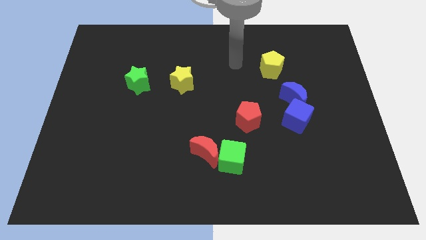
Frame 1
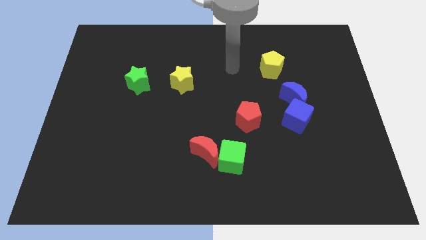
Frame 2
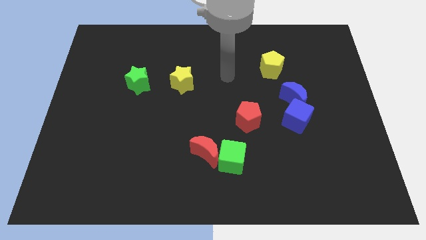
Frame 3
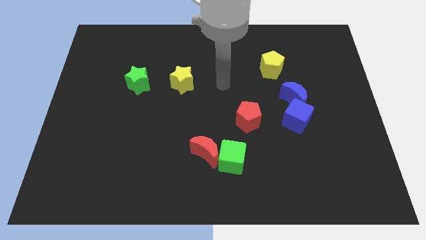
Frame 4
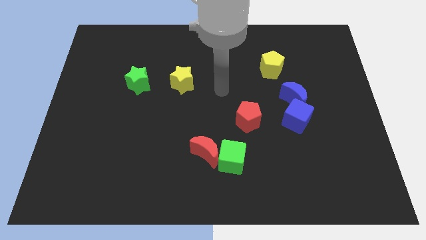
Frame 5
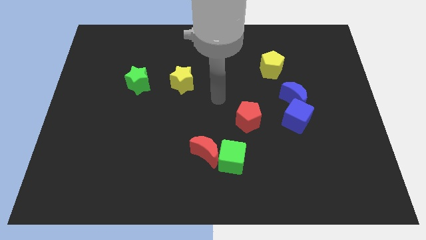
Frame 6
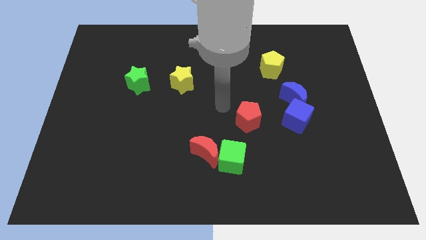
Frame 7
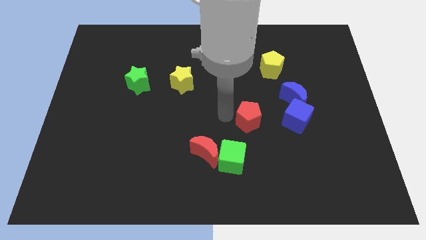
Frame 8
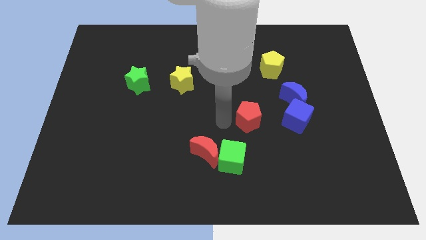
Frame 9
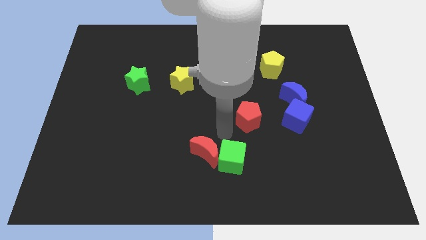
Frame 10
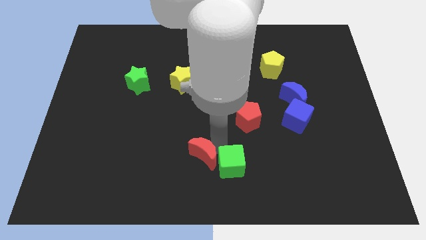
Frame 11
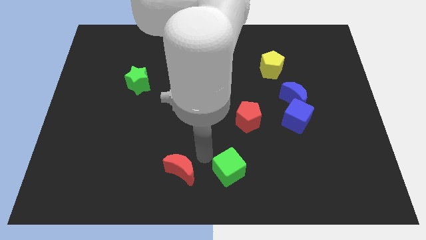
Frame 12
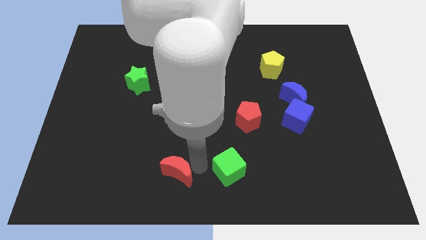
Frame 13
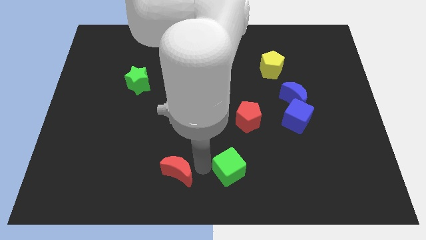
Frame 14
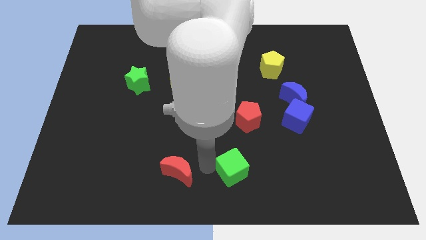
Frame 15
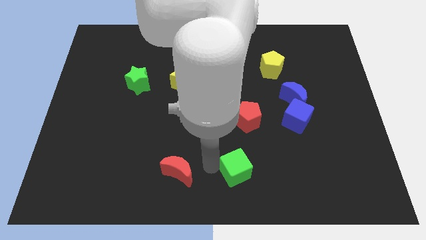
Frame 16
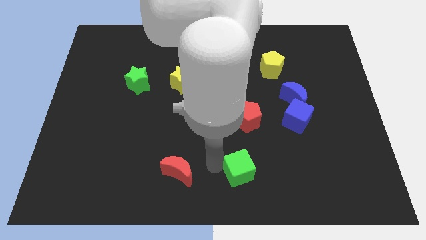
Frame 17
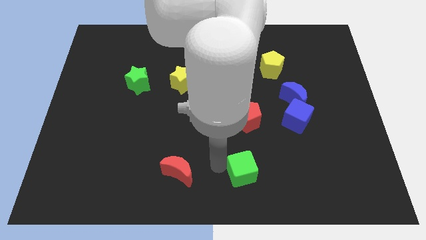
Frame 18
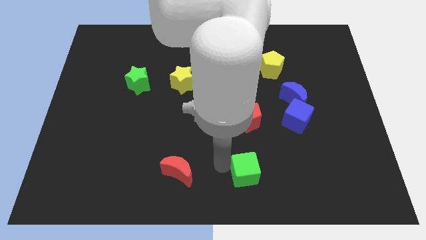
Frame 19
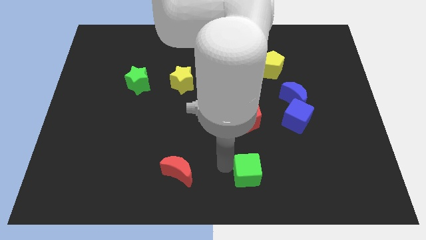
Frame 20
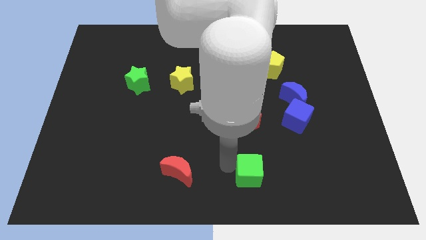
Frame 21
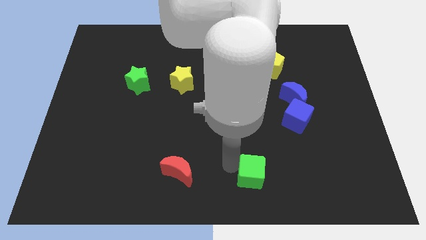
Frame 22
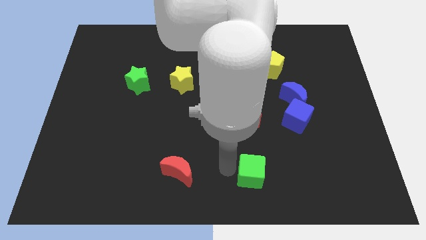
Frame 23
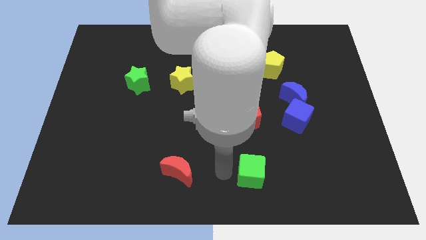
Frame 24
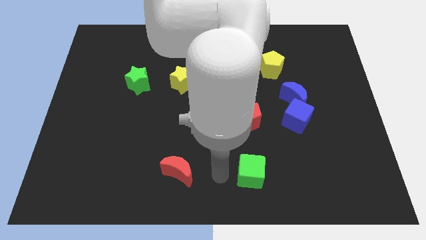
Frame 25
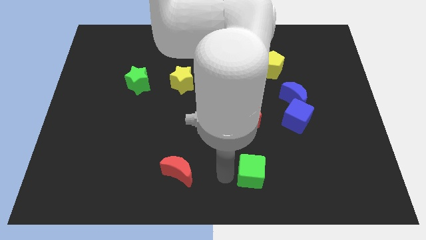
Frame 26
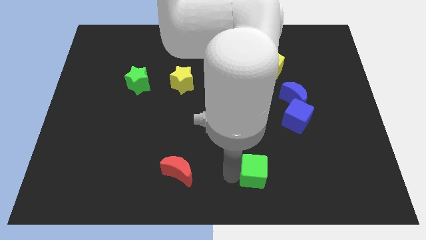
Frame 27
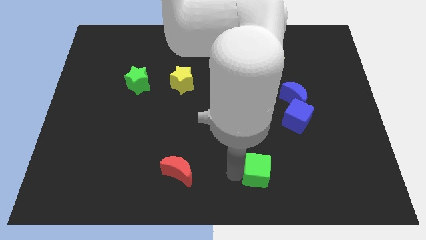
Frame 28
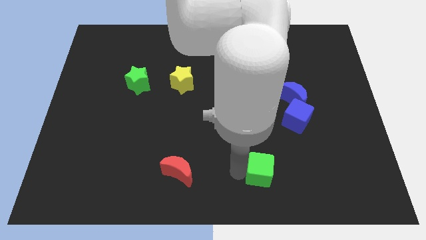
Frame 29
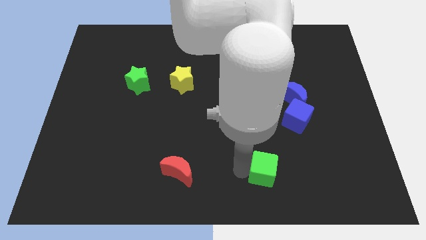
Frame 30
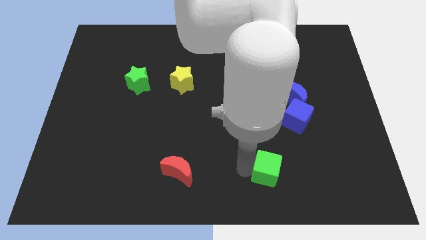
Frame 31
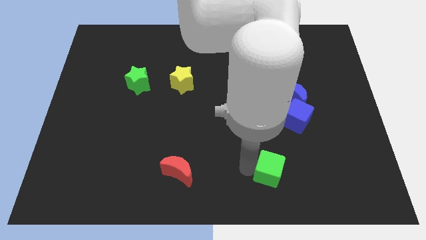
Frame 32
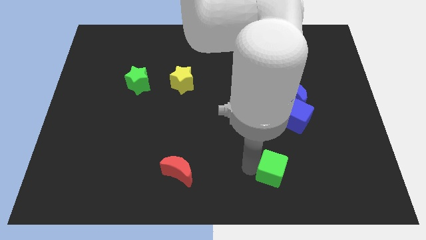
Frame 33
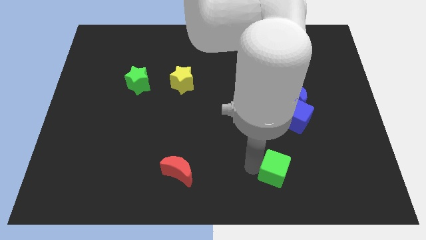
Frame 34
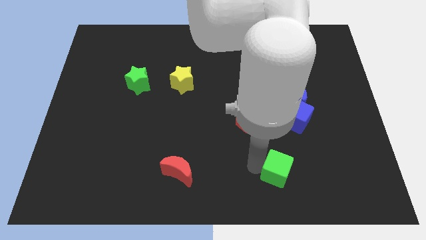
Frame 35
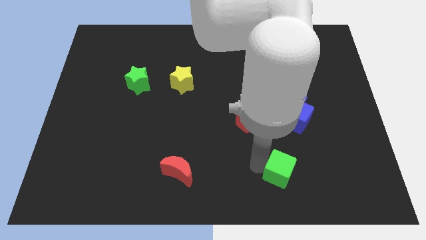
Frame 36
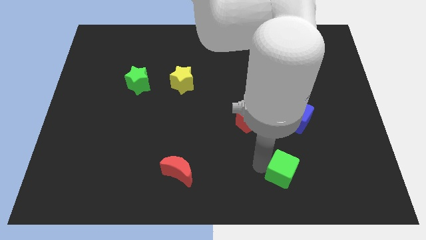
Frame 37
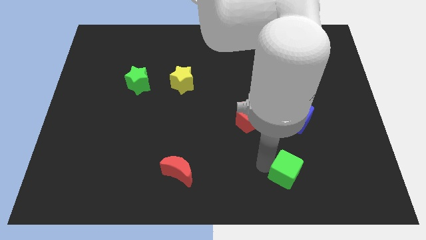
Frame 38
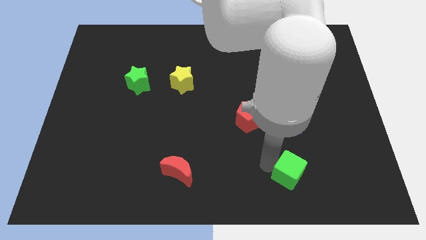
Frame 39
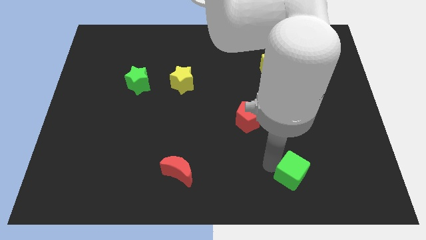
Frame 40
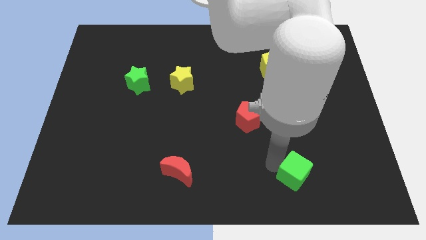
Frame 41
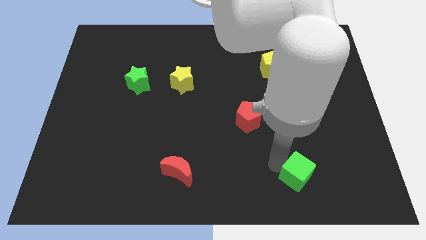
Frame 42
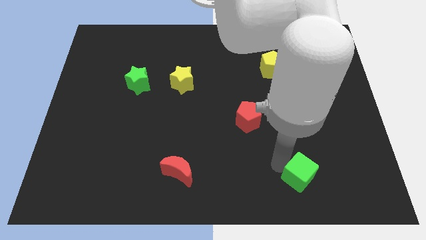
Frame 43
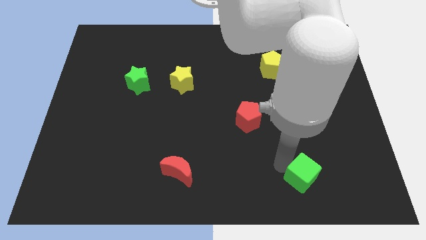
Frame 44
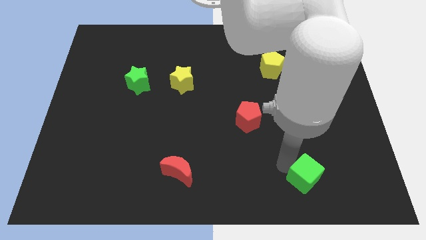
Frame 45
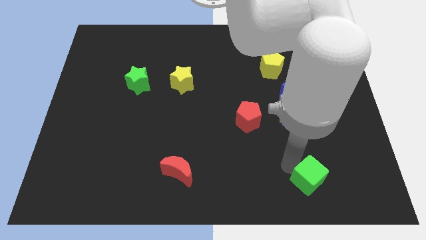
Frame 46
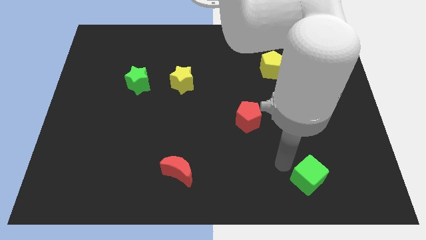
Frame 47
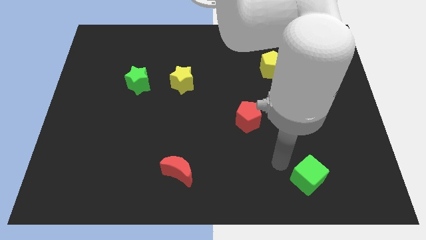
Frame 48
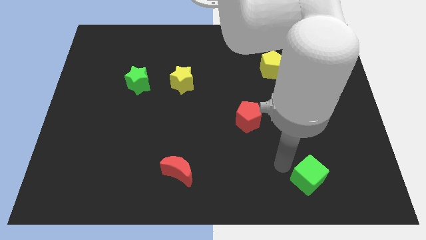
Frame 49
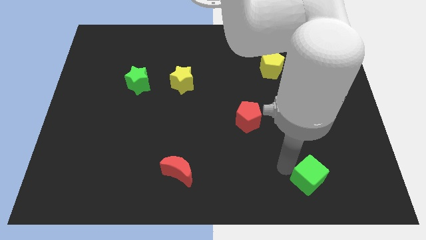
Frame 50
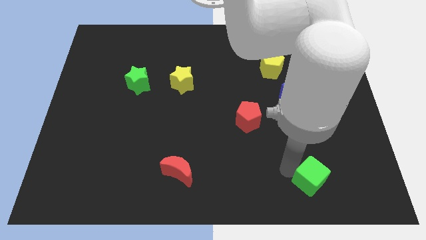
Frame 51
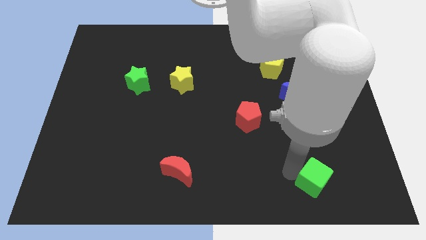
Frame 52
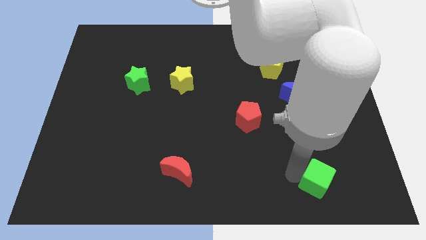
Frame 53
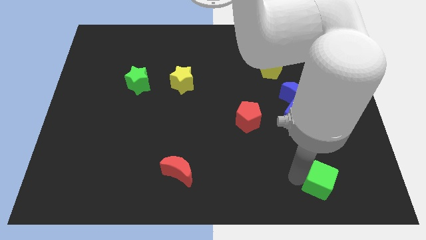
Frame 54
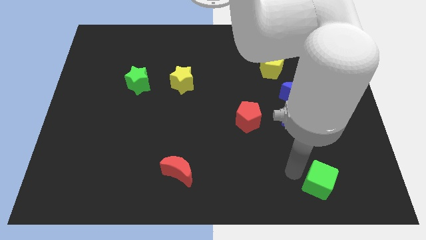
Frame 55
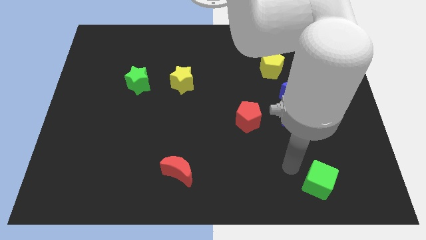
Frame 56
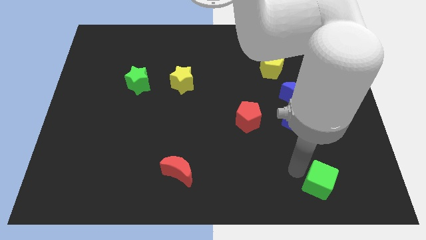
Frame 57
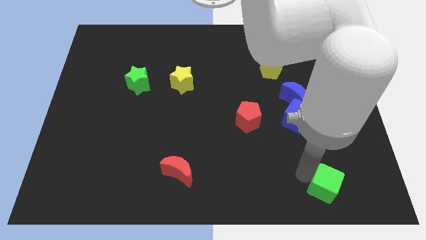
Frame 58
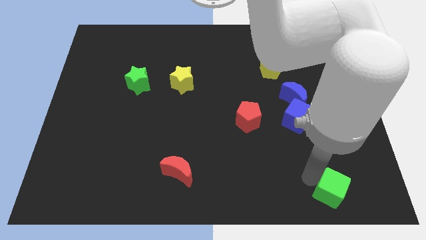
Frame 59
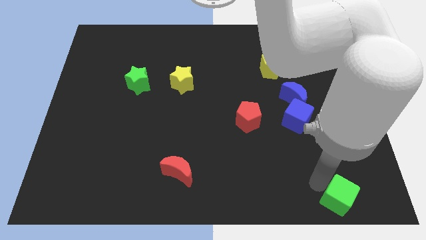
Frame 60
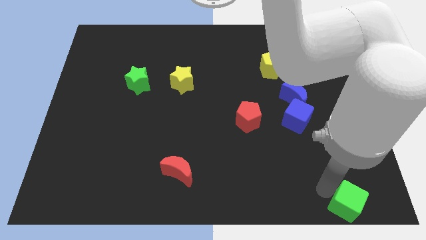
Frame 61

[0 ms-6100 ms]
move the green cube to the lower right corner

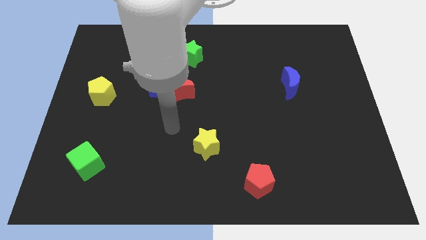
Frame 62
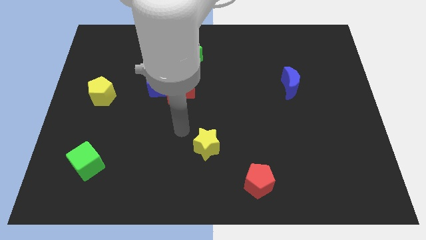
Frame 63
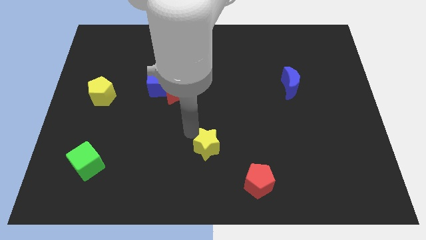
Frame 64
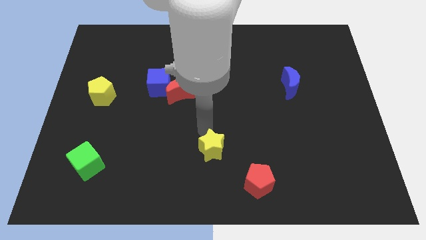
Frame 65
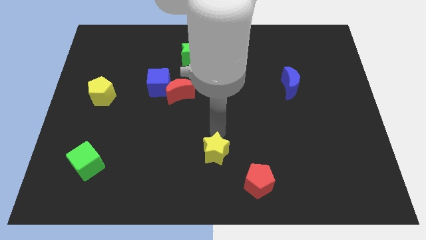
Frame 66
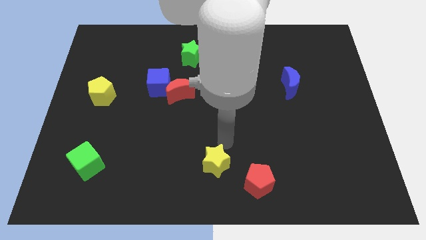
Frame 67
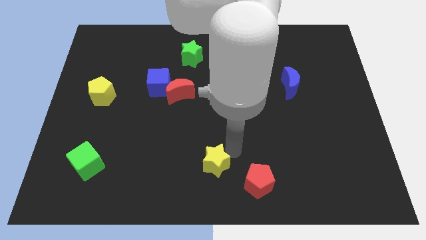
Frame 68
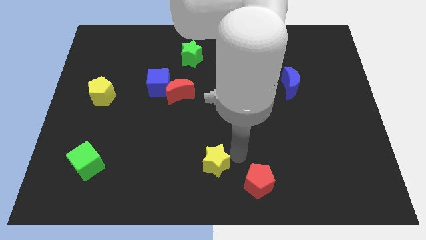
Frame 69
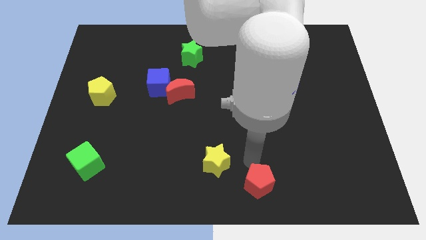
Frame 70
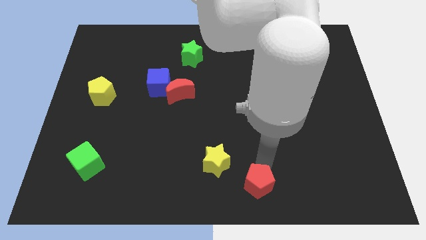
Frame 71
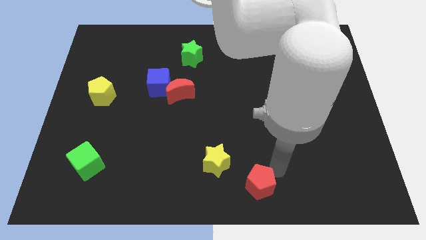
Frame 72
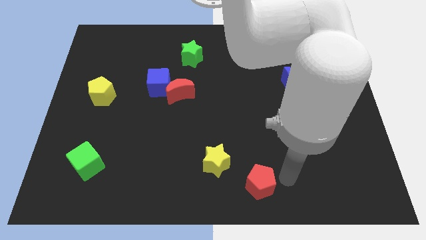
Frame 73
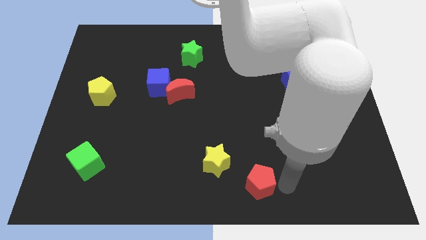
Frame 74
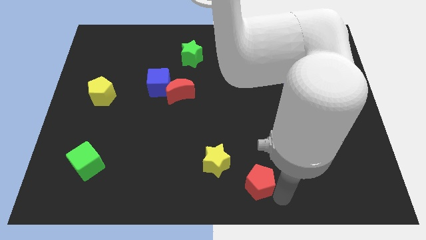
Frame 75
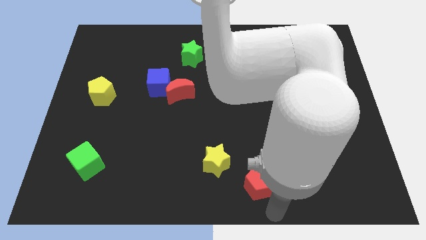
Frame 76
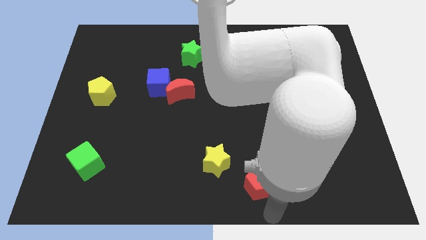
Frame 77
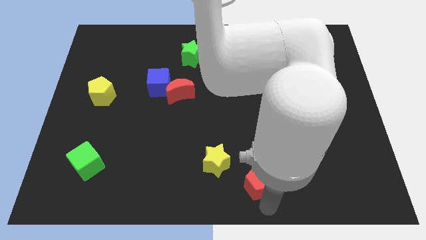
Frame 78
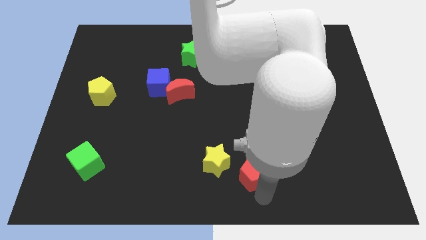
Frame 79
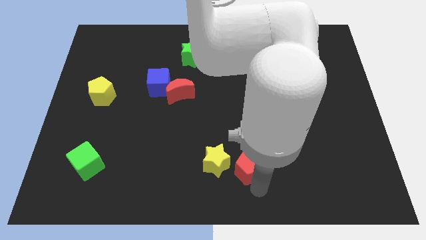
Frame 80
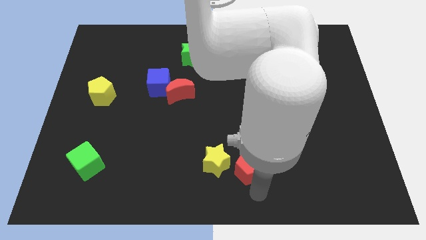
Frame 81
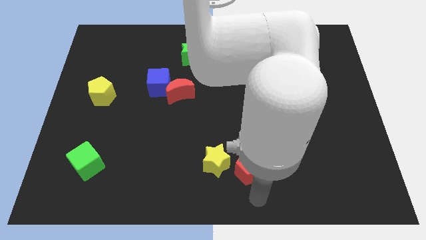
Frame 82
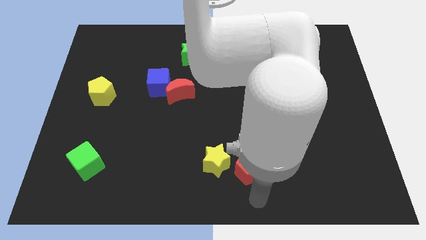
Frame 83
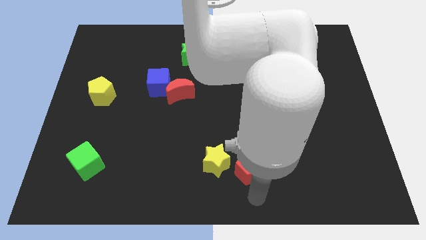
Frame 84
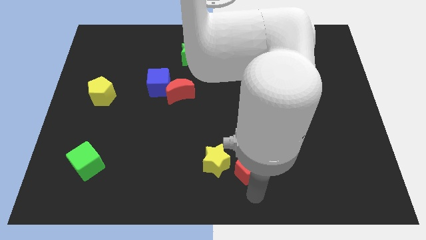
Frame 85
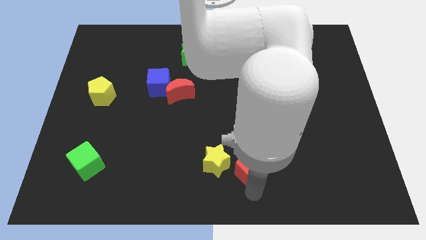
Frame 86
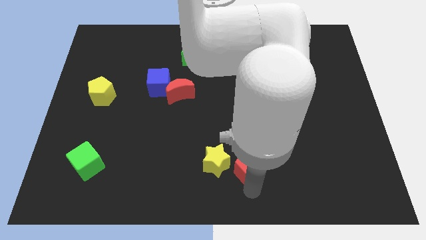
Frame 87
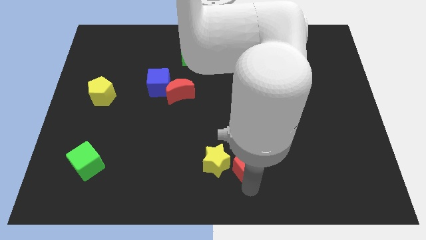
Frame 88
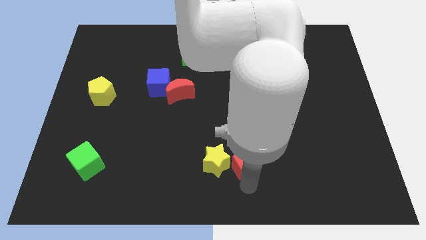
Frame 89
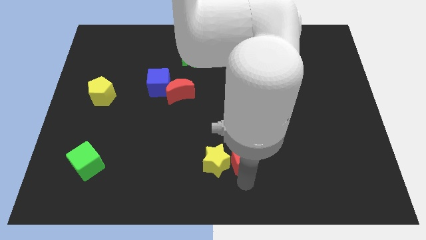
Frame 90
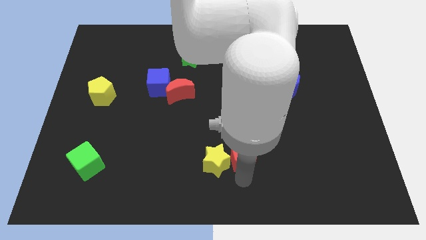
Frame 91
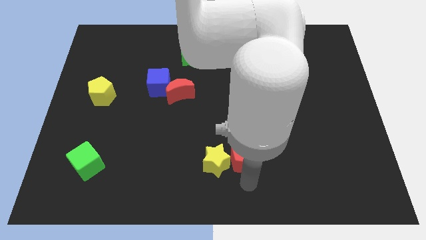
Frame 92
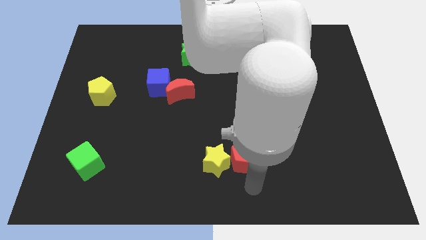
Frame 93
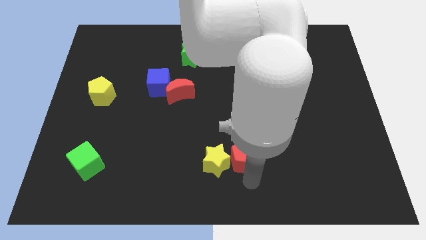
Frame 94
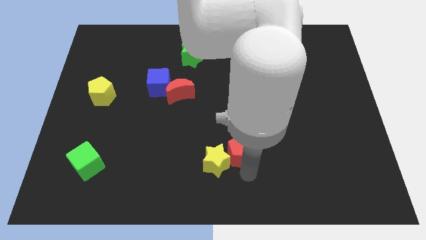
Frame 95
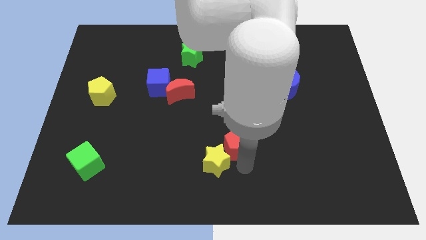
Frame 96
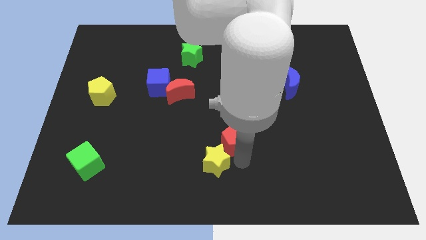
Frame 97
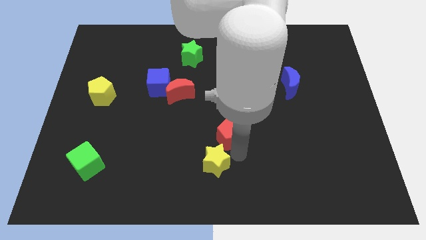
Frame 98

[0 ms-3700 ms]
push the red pentagon to the middle of the board
